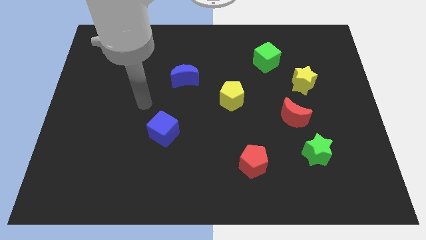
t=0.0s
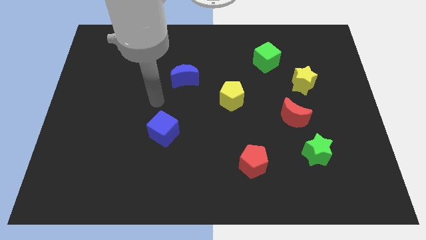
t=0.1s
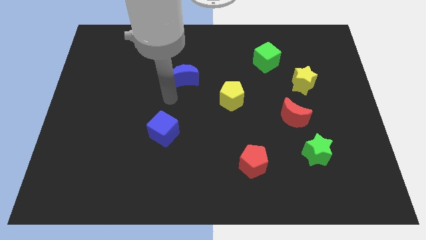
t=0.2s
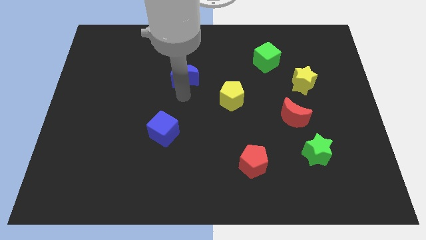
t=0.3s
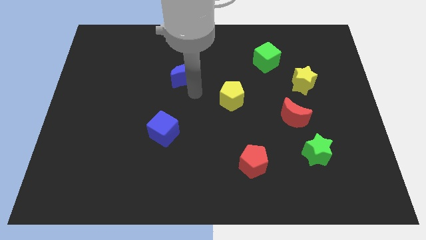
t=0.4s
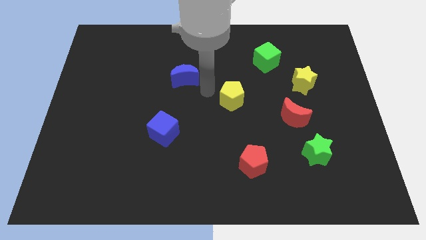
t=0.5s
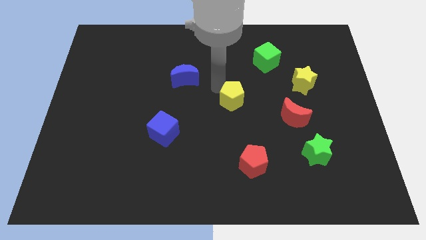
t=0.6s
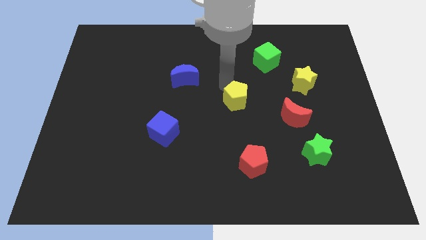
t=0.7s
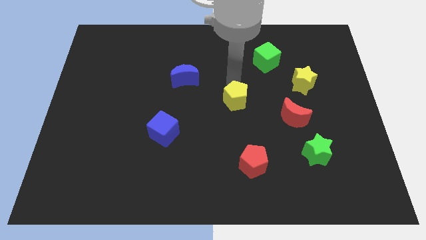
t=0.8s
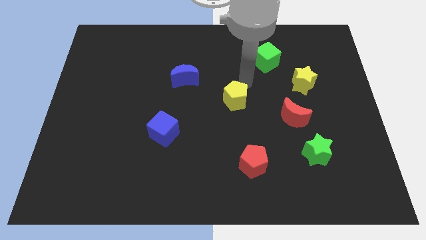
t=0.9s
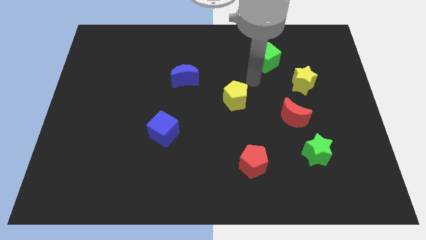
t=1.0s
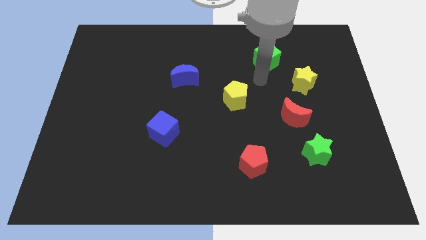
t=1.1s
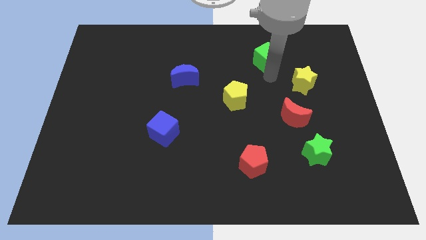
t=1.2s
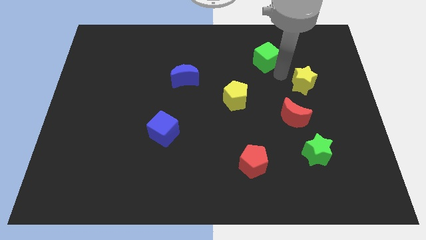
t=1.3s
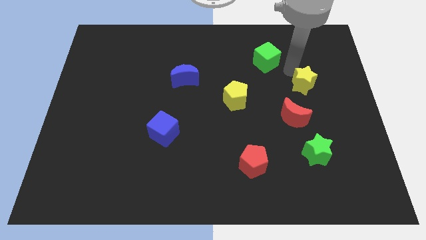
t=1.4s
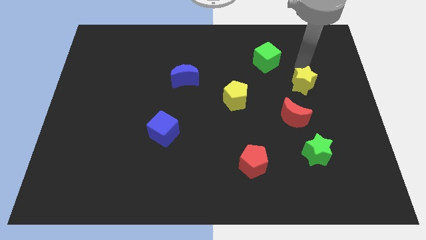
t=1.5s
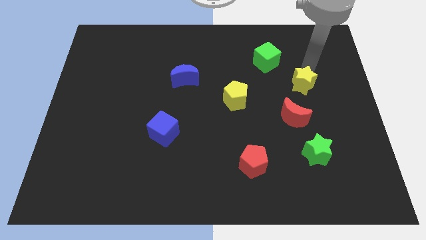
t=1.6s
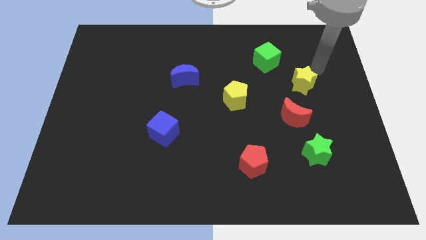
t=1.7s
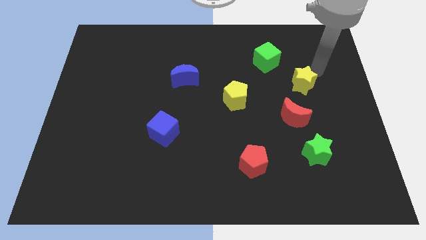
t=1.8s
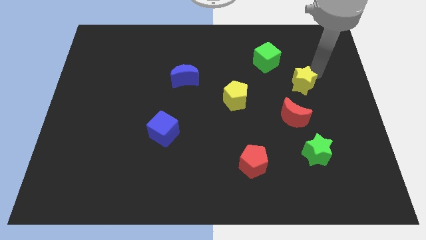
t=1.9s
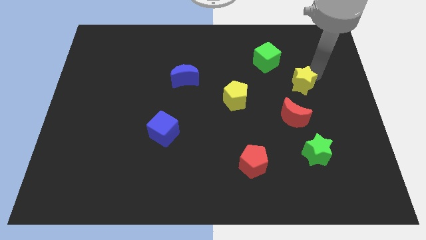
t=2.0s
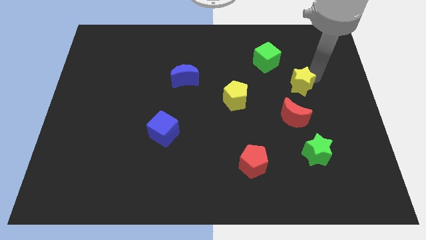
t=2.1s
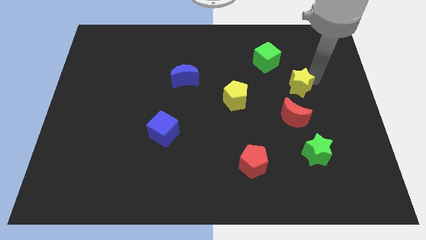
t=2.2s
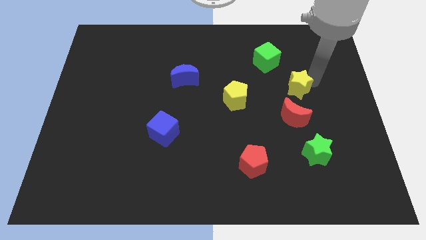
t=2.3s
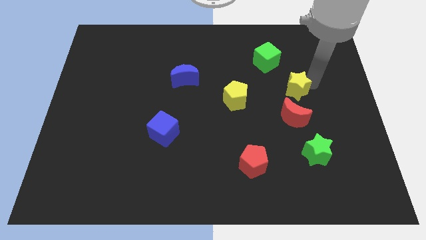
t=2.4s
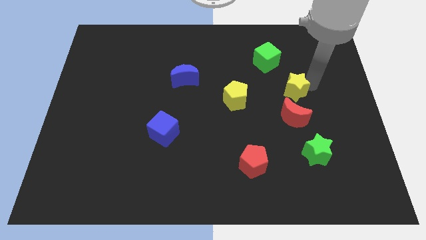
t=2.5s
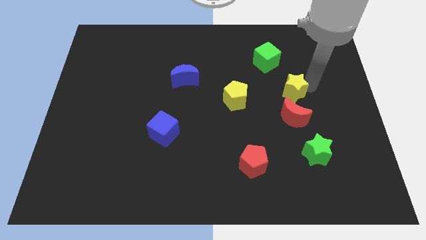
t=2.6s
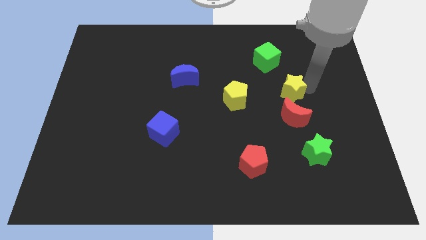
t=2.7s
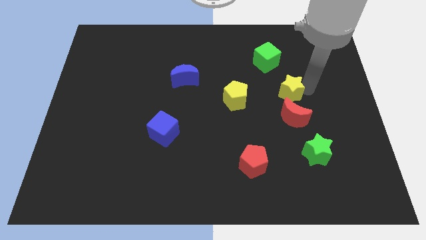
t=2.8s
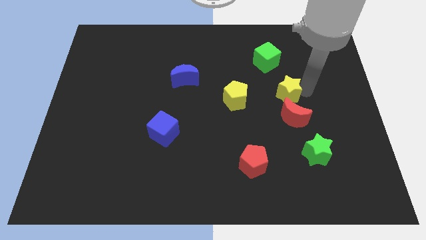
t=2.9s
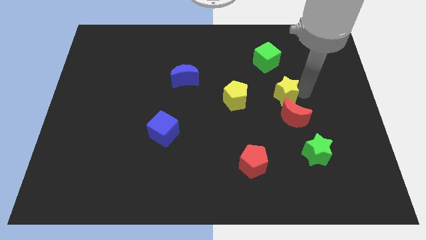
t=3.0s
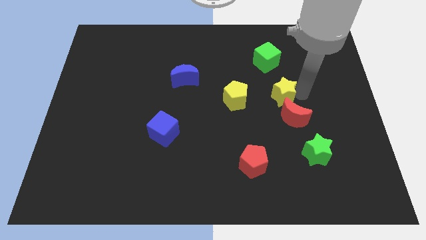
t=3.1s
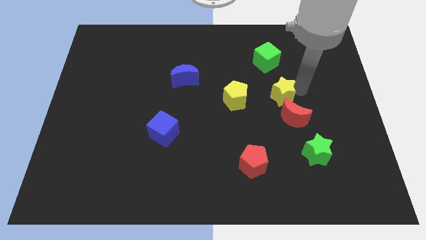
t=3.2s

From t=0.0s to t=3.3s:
slightly push the yellow star downwards and left

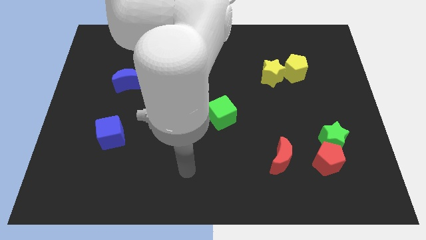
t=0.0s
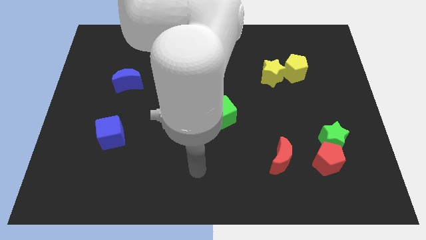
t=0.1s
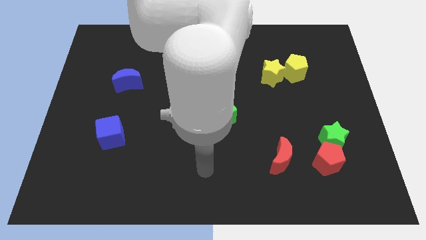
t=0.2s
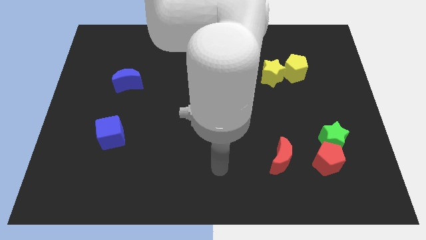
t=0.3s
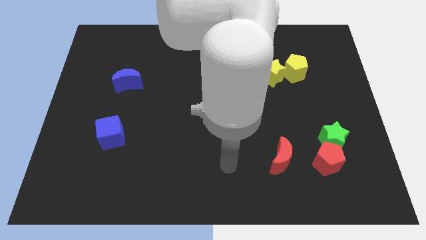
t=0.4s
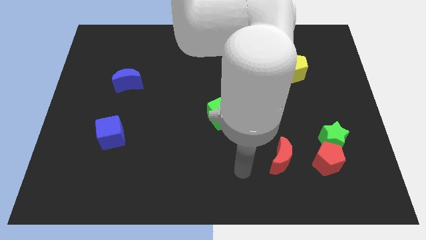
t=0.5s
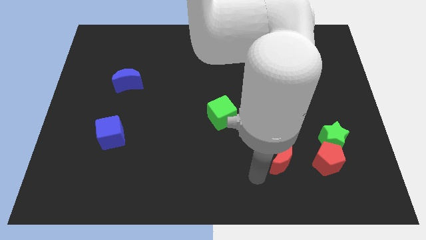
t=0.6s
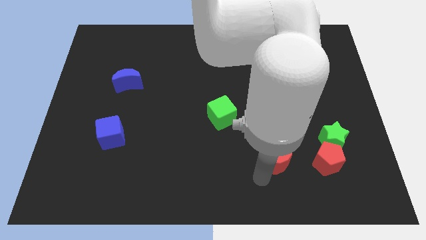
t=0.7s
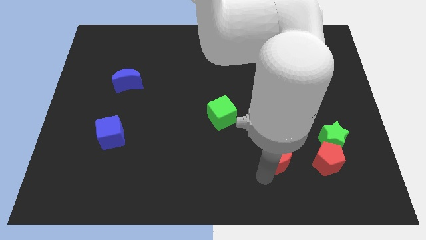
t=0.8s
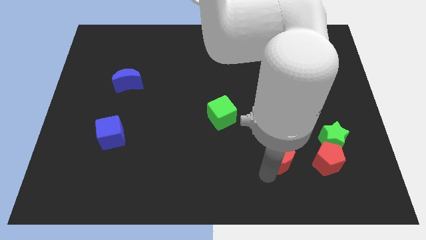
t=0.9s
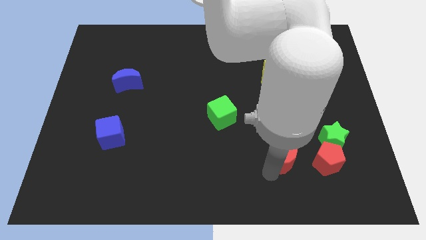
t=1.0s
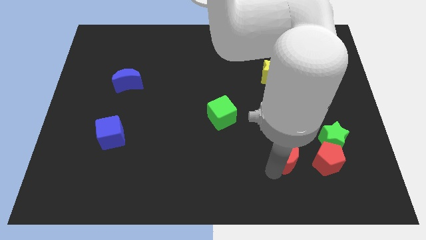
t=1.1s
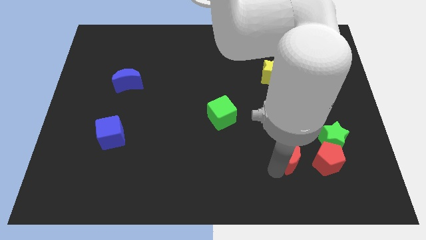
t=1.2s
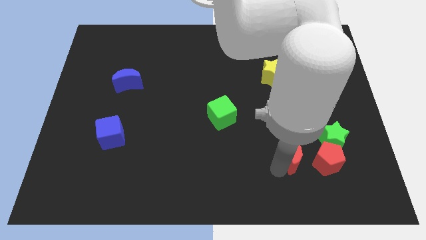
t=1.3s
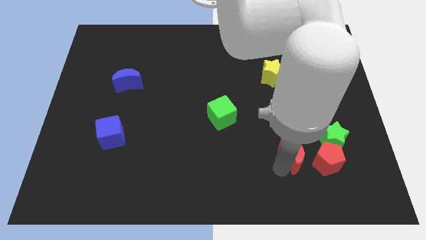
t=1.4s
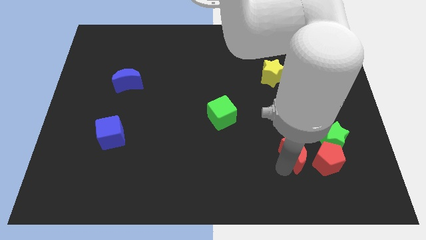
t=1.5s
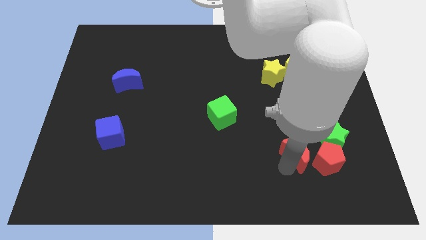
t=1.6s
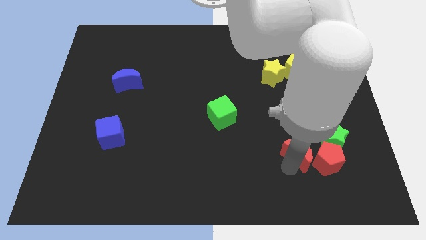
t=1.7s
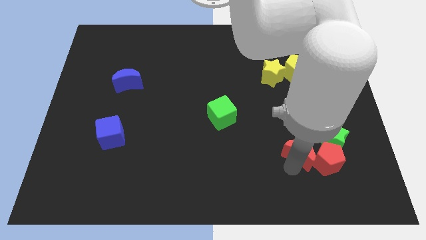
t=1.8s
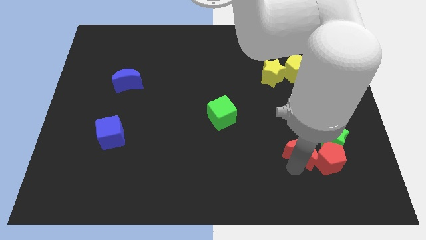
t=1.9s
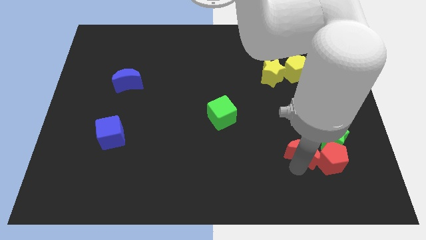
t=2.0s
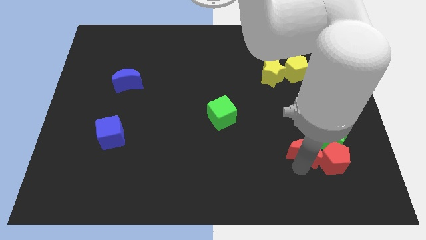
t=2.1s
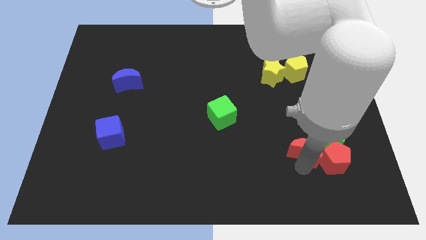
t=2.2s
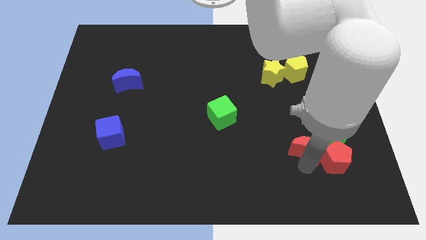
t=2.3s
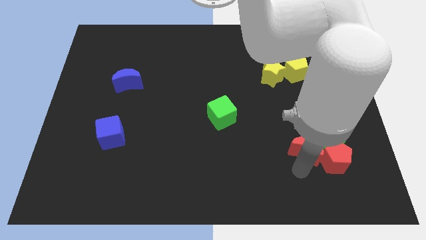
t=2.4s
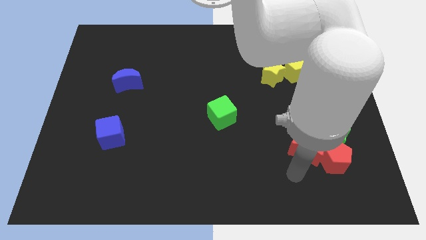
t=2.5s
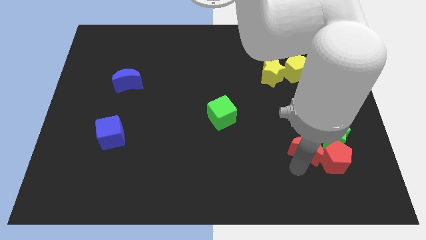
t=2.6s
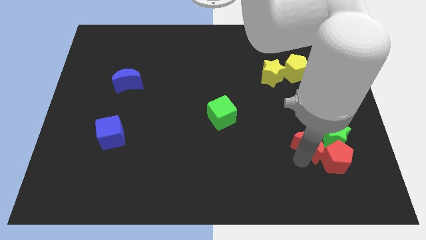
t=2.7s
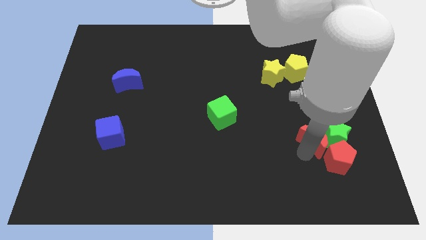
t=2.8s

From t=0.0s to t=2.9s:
slightly slide the red moon up and right

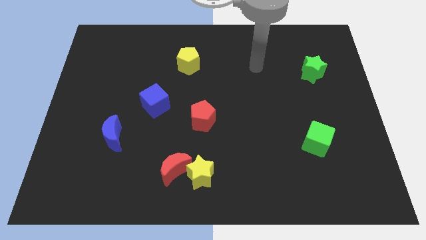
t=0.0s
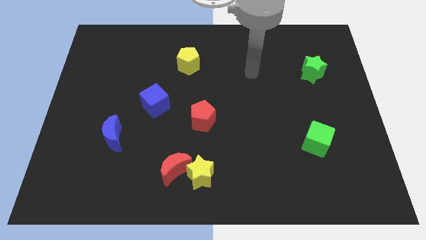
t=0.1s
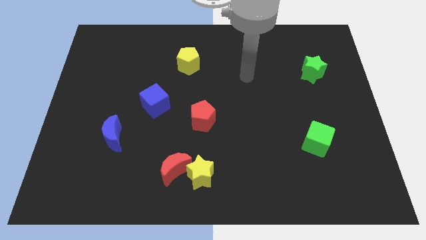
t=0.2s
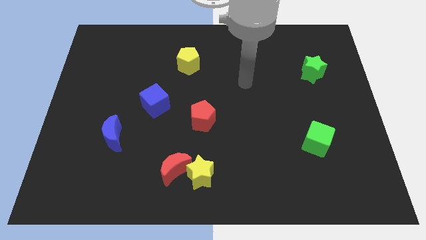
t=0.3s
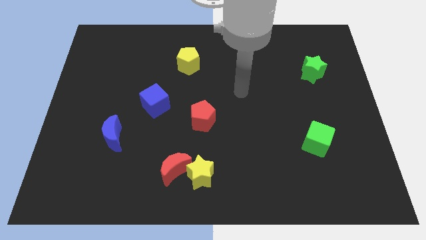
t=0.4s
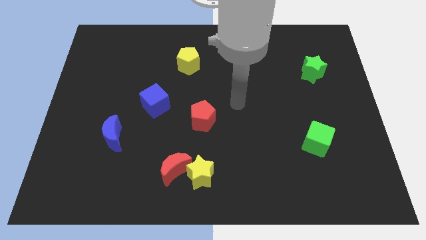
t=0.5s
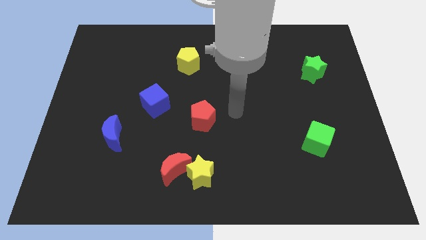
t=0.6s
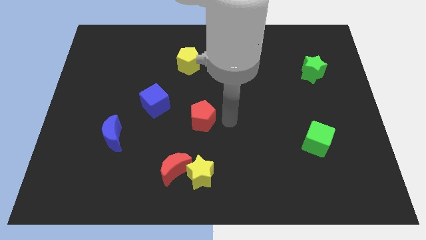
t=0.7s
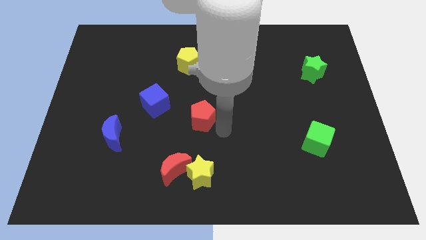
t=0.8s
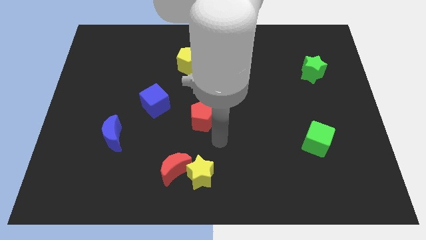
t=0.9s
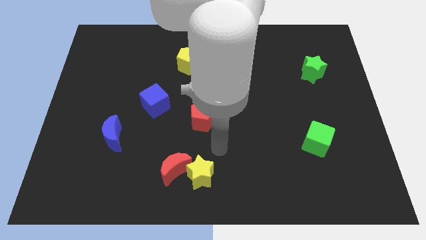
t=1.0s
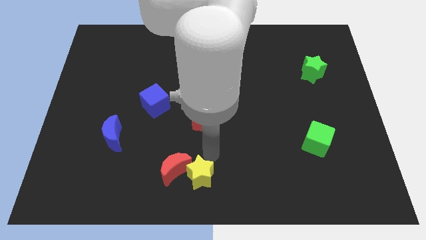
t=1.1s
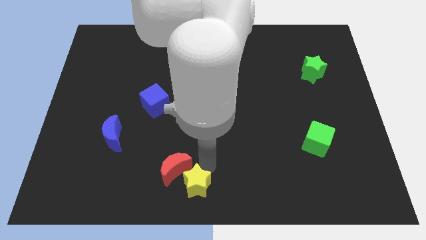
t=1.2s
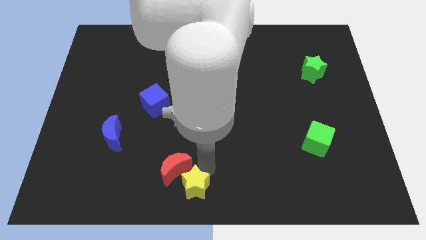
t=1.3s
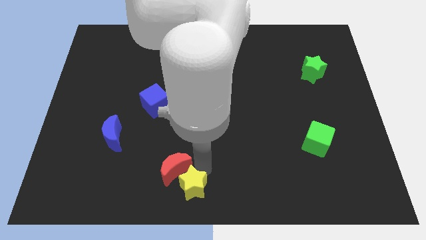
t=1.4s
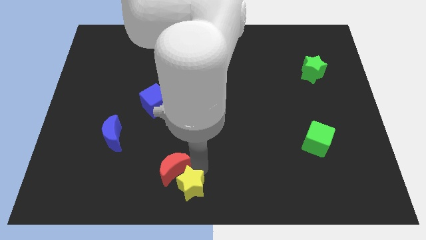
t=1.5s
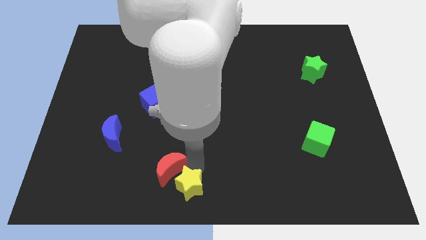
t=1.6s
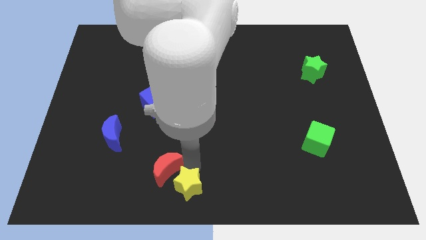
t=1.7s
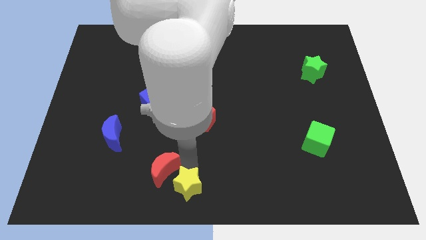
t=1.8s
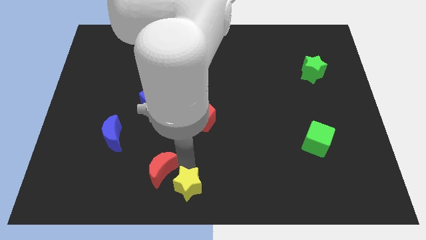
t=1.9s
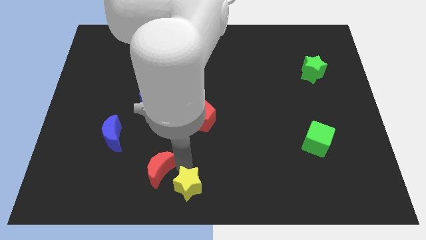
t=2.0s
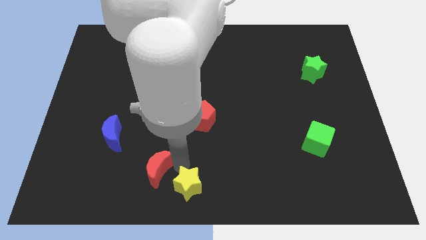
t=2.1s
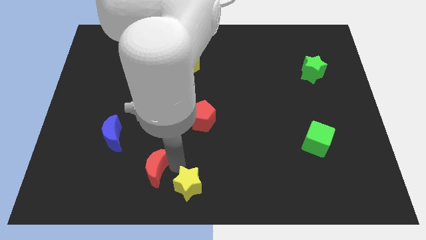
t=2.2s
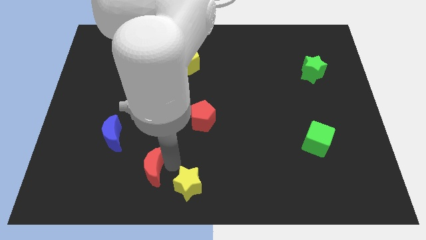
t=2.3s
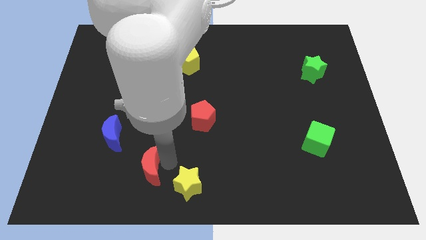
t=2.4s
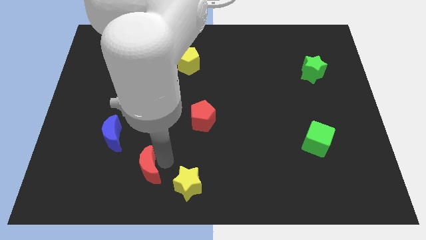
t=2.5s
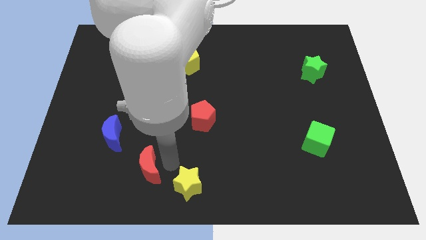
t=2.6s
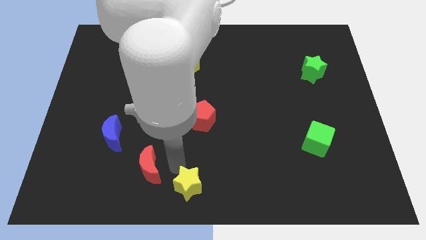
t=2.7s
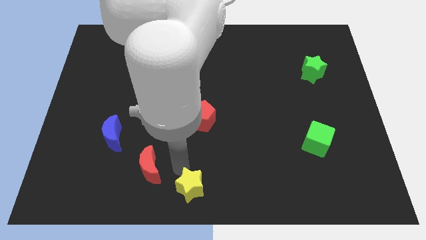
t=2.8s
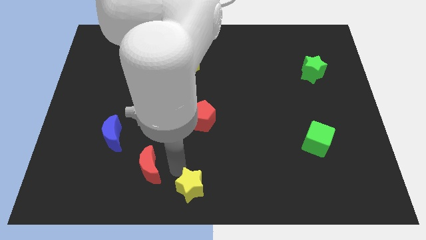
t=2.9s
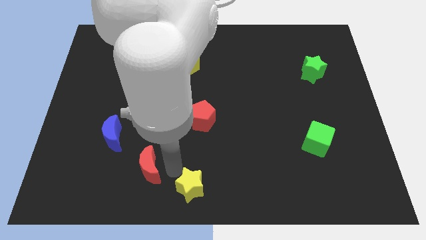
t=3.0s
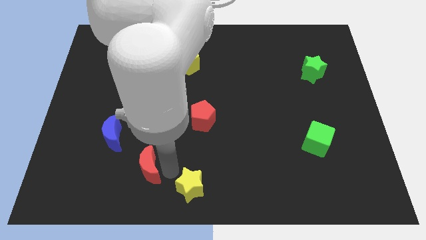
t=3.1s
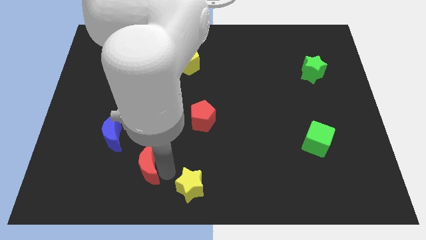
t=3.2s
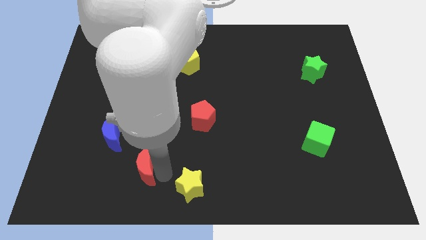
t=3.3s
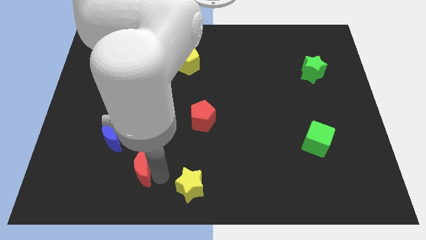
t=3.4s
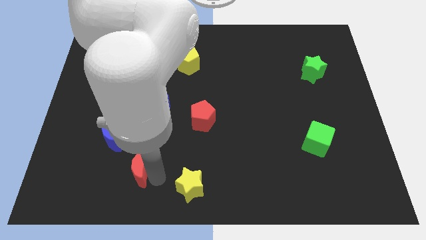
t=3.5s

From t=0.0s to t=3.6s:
slide the red moon to the left slightly
